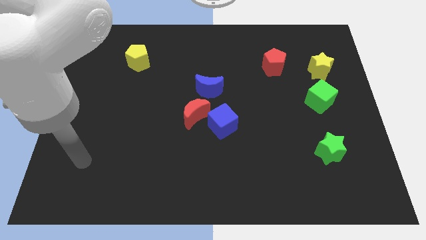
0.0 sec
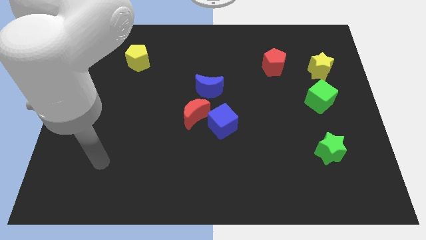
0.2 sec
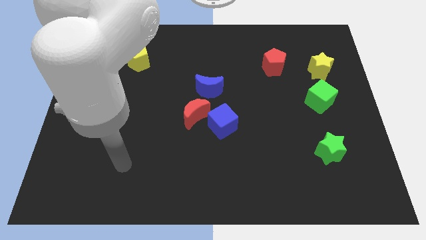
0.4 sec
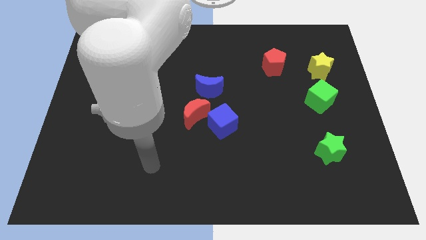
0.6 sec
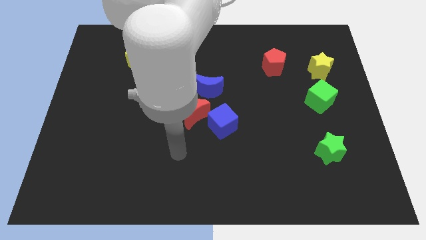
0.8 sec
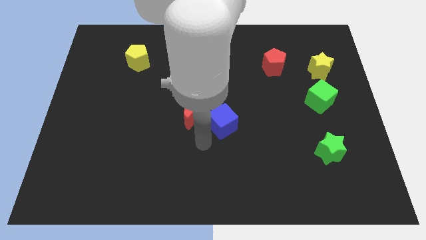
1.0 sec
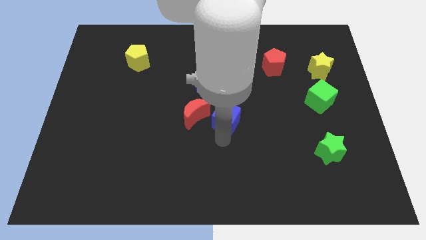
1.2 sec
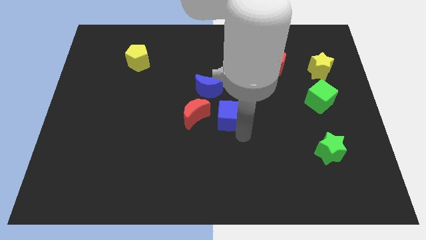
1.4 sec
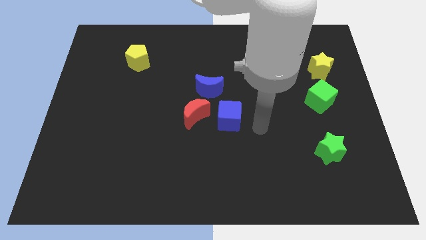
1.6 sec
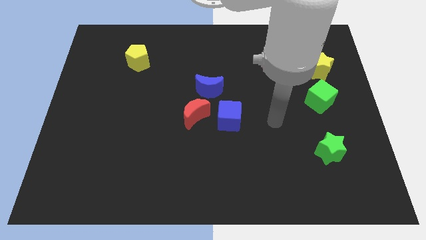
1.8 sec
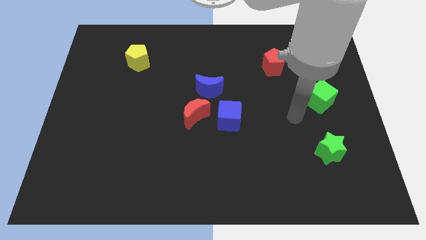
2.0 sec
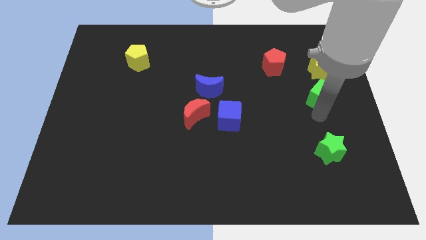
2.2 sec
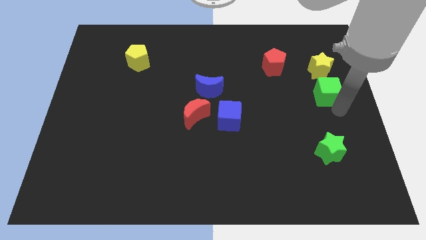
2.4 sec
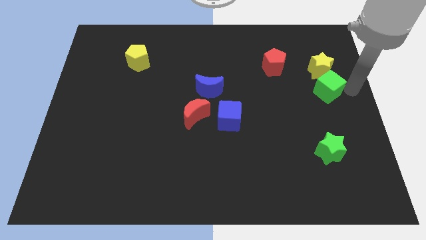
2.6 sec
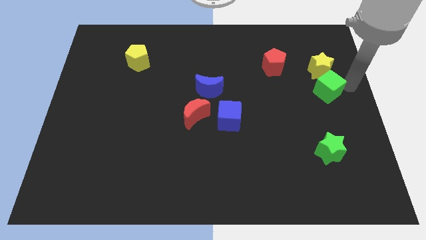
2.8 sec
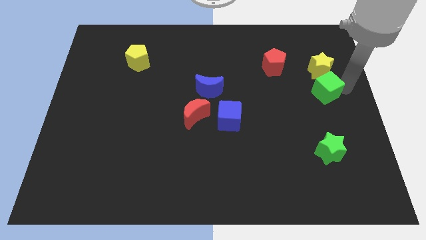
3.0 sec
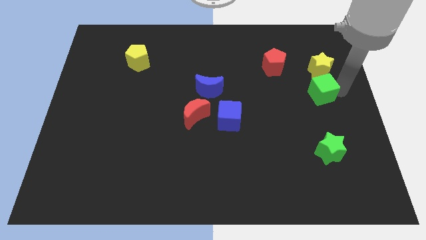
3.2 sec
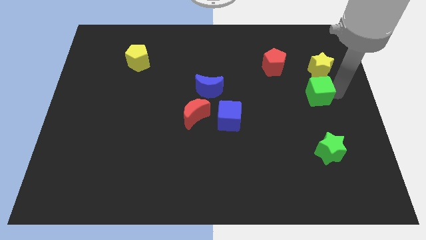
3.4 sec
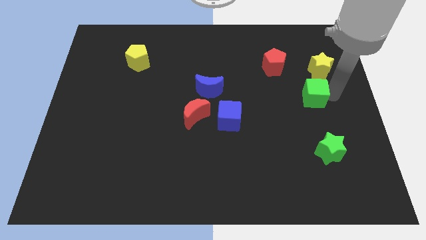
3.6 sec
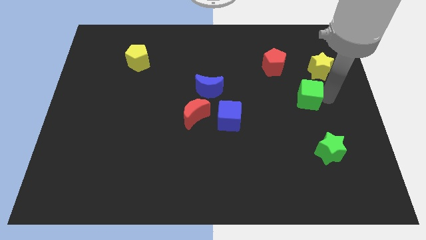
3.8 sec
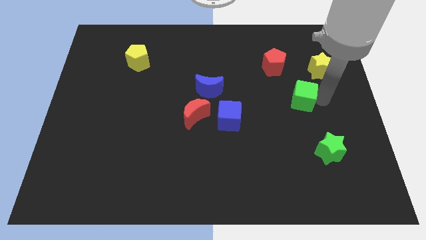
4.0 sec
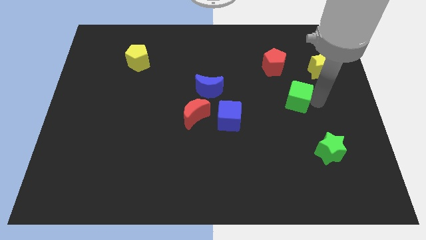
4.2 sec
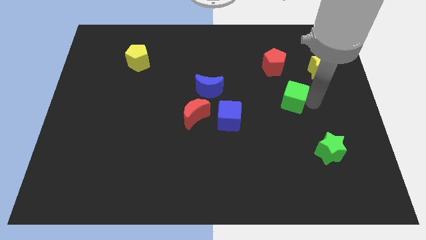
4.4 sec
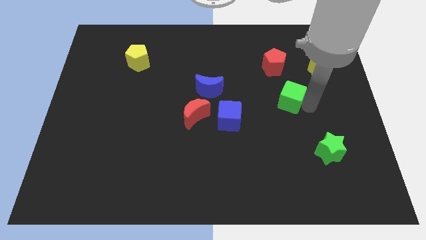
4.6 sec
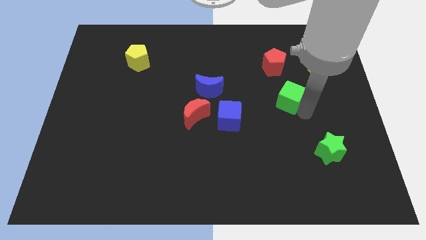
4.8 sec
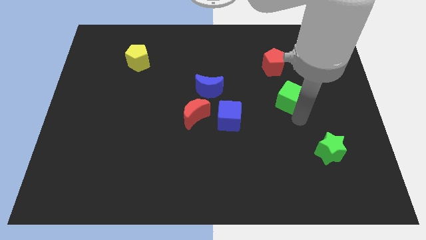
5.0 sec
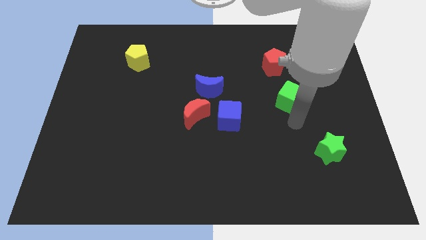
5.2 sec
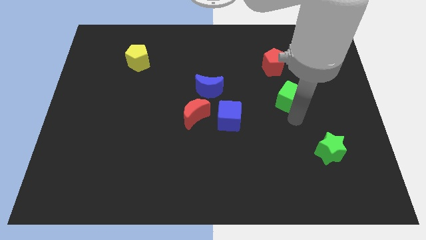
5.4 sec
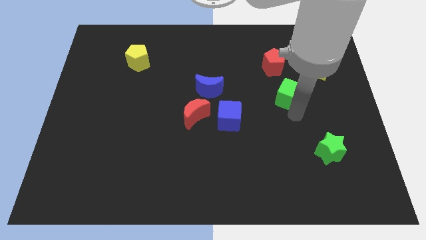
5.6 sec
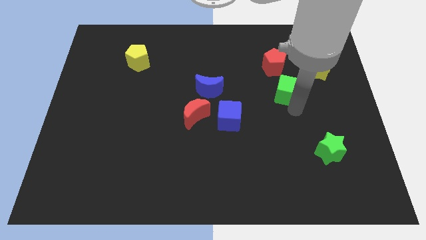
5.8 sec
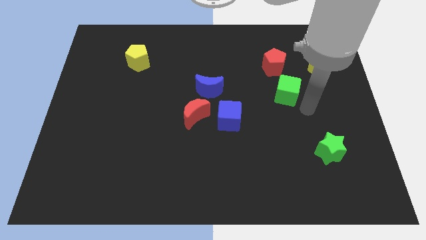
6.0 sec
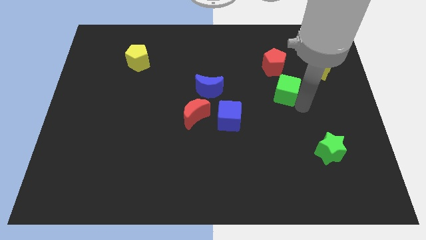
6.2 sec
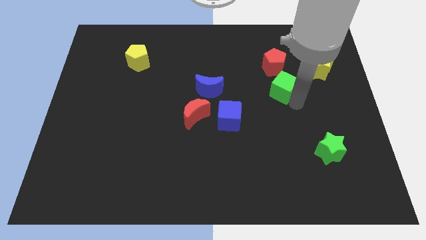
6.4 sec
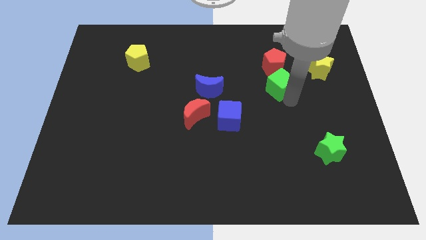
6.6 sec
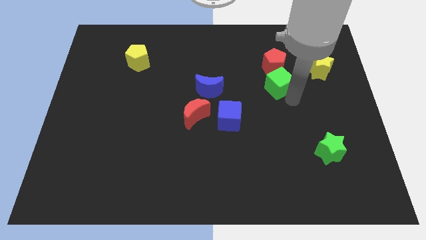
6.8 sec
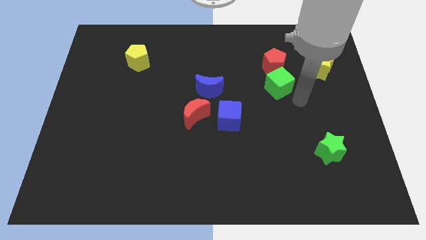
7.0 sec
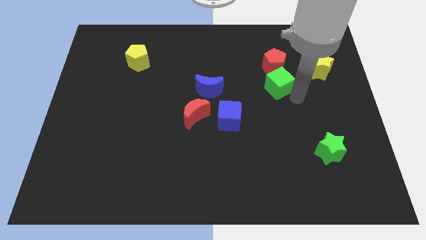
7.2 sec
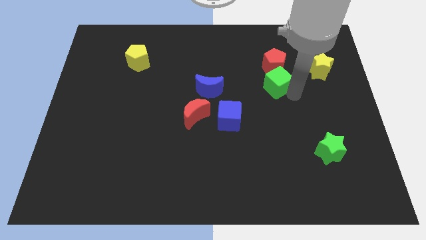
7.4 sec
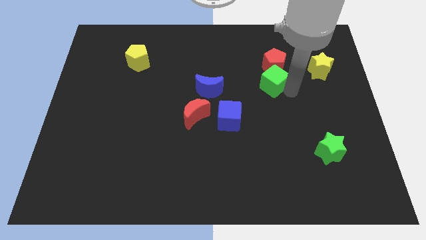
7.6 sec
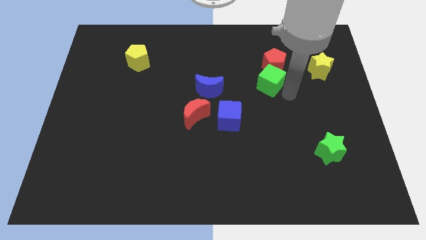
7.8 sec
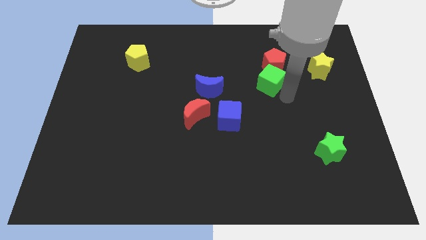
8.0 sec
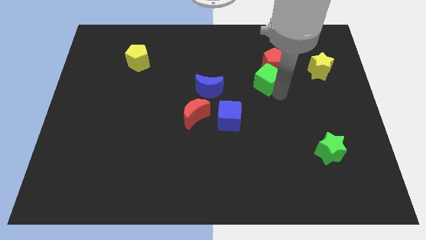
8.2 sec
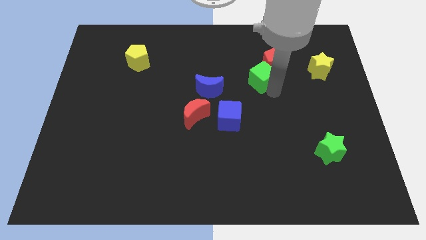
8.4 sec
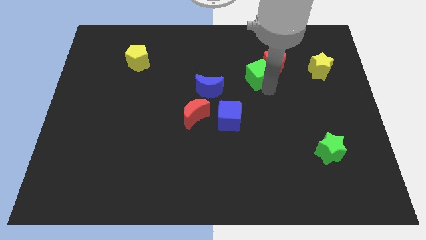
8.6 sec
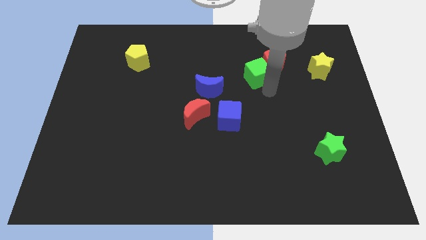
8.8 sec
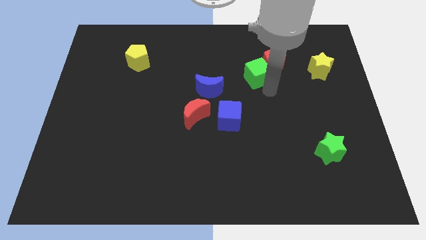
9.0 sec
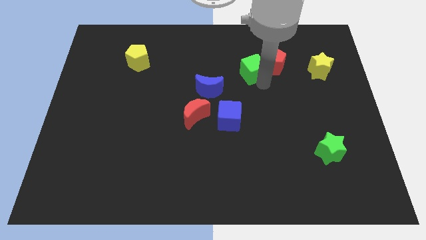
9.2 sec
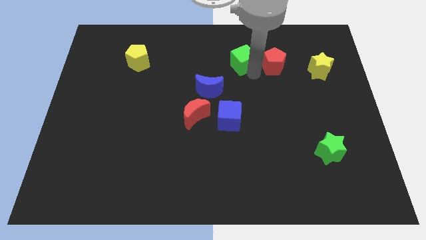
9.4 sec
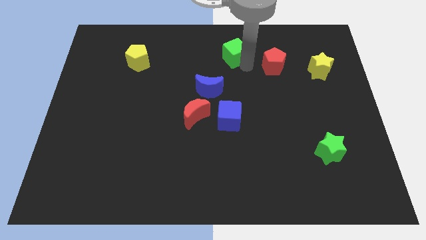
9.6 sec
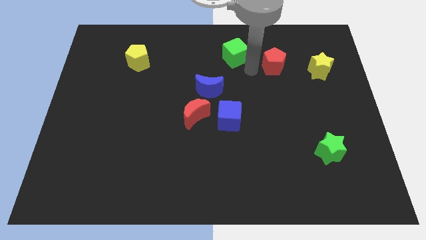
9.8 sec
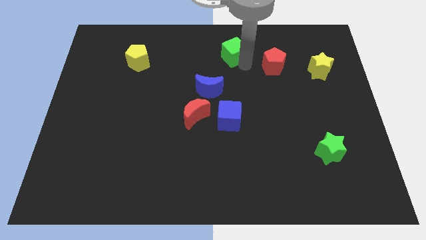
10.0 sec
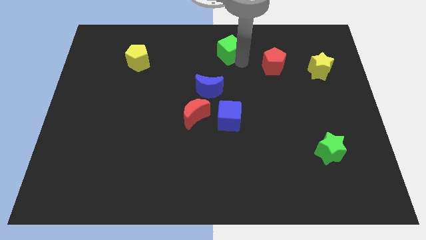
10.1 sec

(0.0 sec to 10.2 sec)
push the green cube to the top side

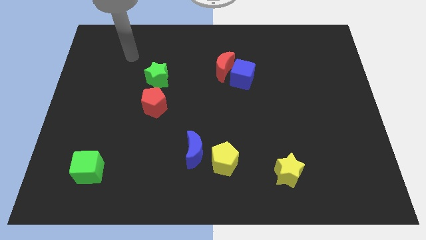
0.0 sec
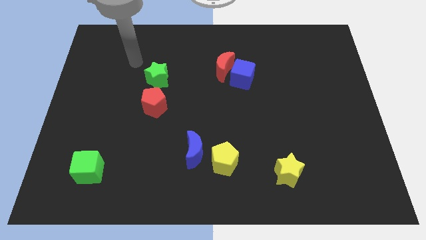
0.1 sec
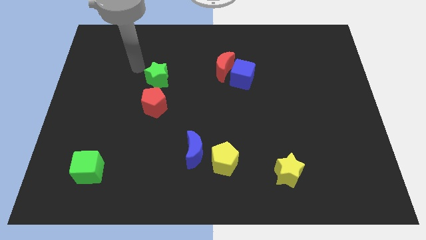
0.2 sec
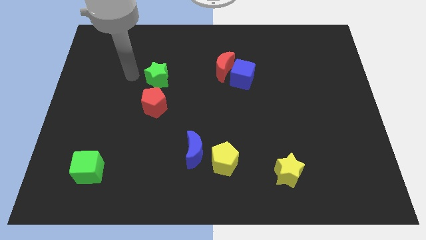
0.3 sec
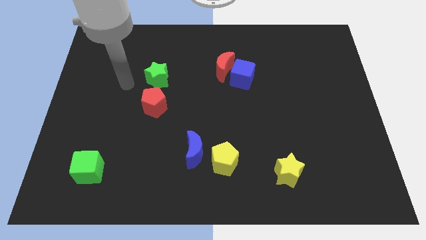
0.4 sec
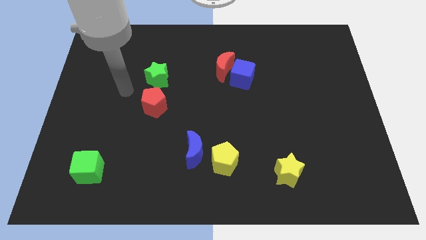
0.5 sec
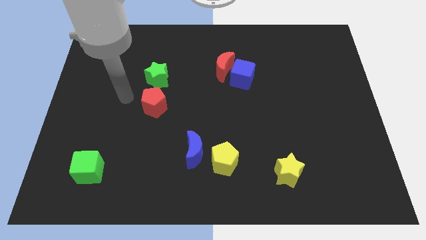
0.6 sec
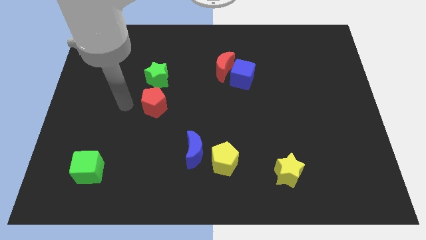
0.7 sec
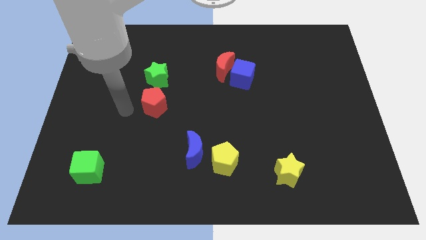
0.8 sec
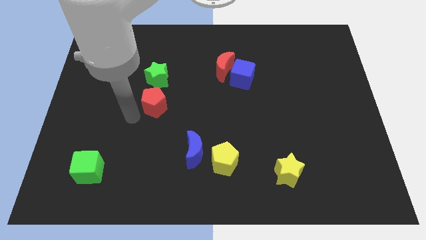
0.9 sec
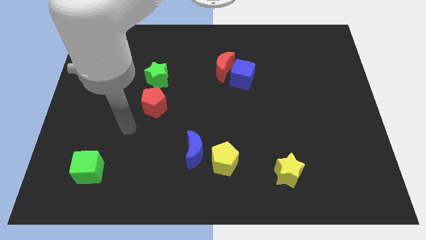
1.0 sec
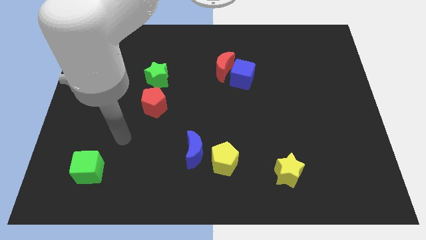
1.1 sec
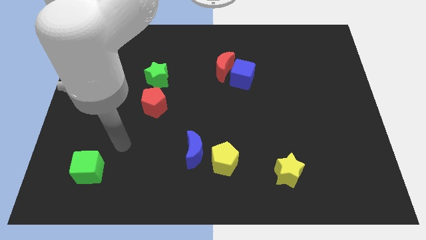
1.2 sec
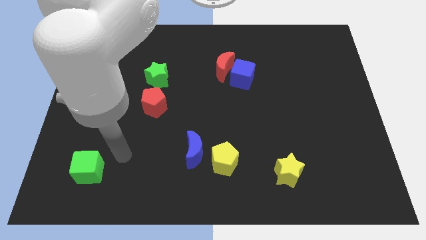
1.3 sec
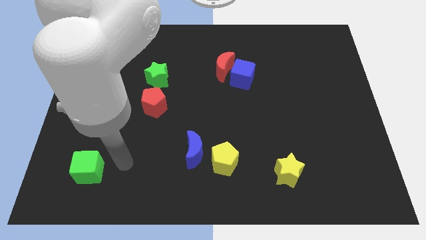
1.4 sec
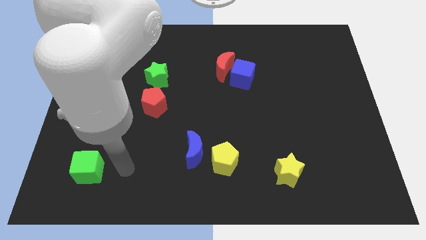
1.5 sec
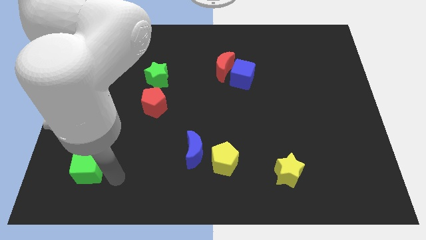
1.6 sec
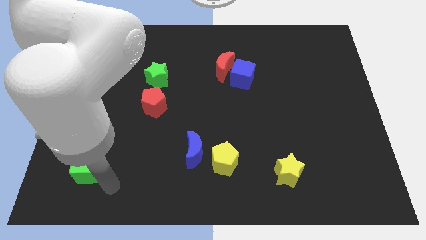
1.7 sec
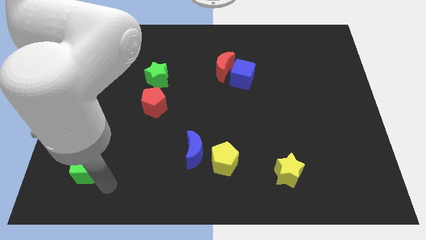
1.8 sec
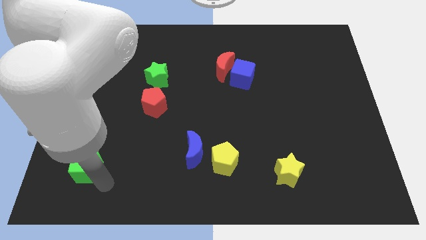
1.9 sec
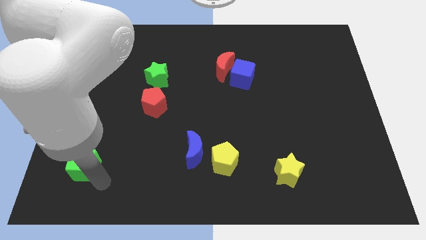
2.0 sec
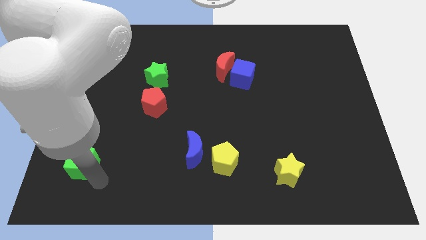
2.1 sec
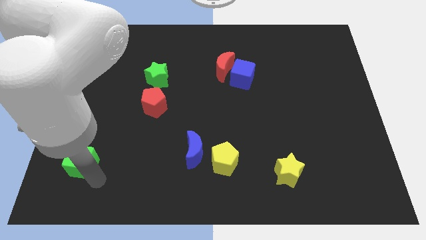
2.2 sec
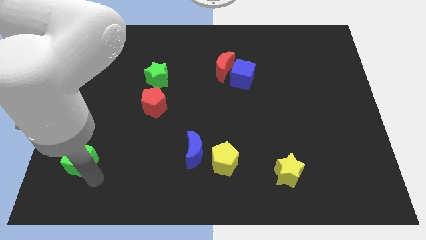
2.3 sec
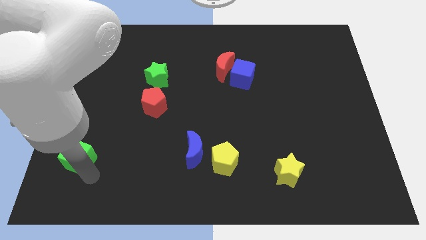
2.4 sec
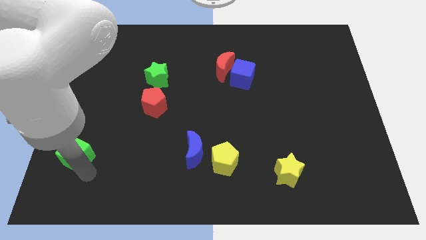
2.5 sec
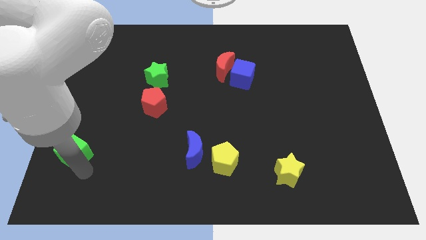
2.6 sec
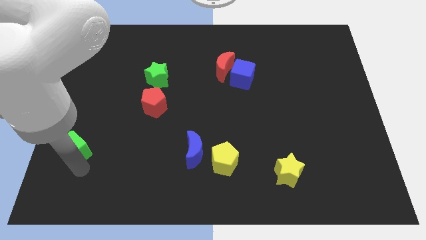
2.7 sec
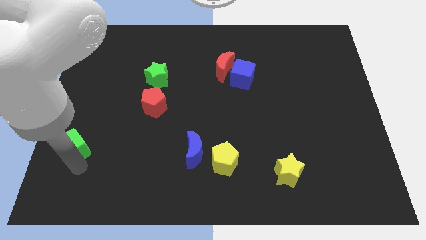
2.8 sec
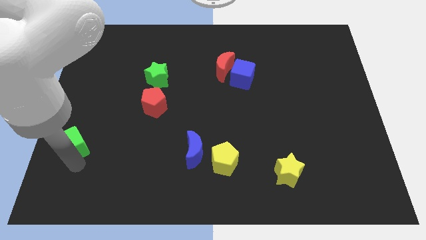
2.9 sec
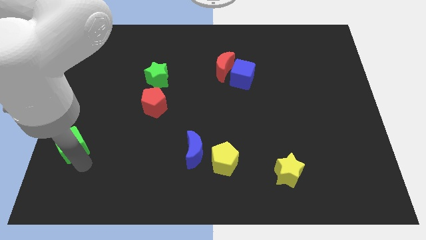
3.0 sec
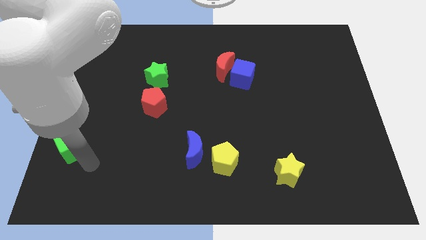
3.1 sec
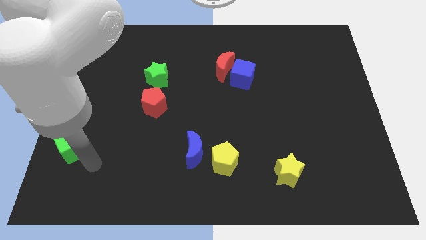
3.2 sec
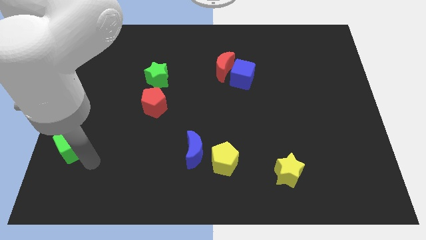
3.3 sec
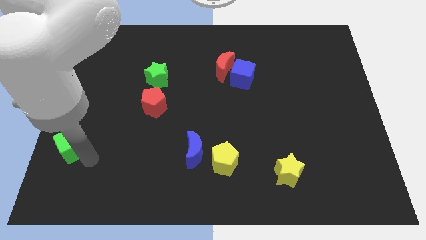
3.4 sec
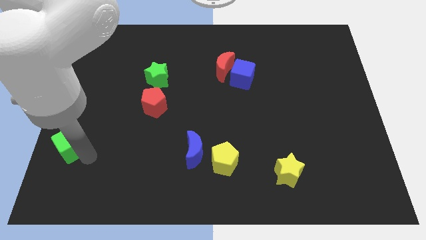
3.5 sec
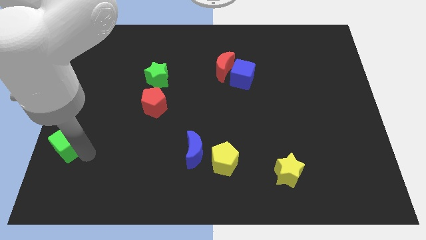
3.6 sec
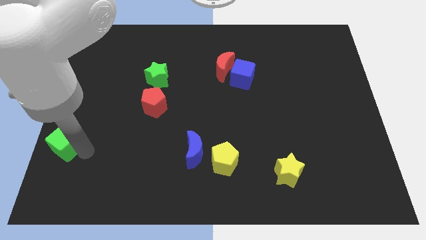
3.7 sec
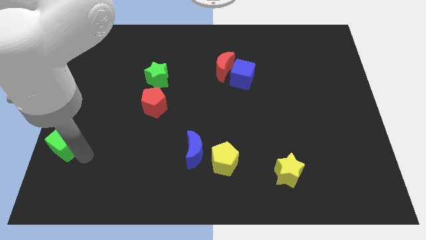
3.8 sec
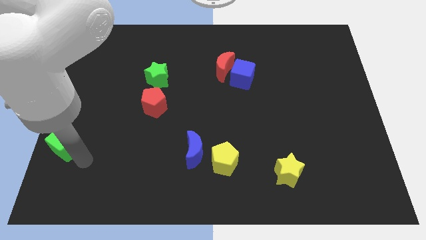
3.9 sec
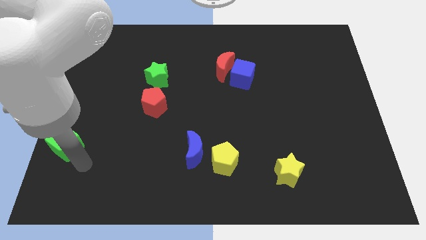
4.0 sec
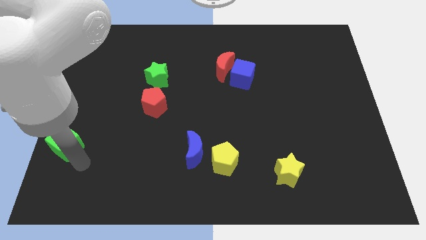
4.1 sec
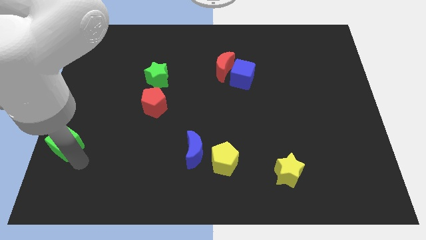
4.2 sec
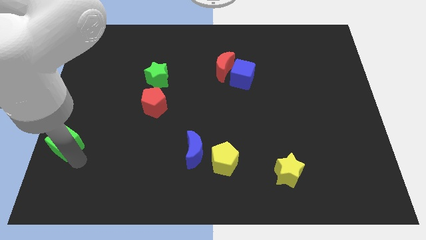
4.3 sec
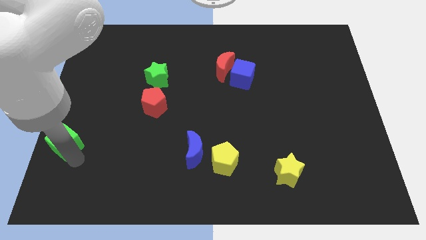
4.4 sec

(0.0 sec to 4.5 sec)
put the green cube to the left side
